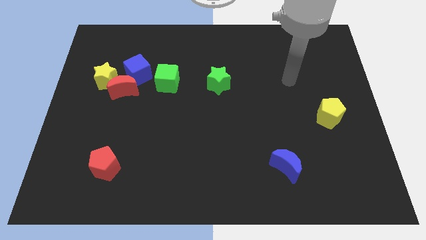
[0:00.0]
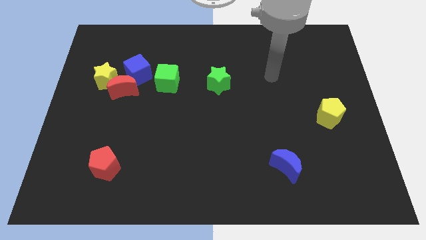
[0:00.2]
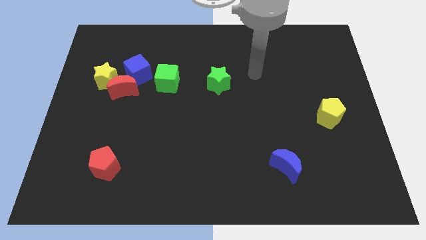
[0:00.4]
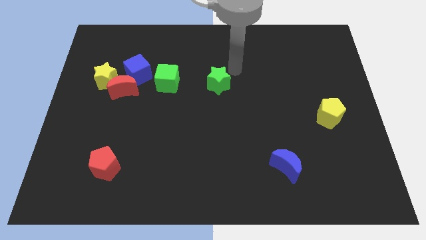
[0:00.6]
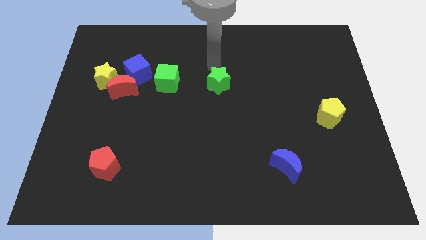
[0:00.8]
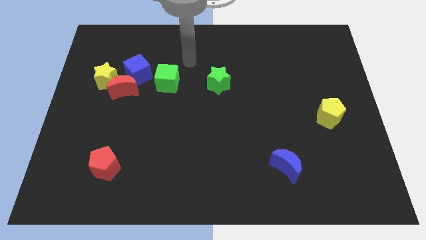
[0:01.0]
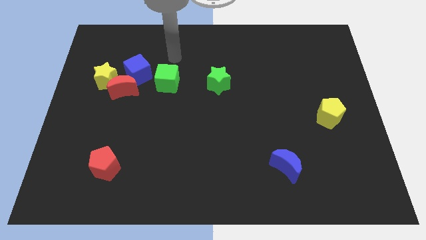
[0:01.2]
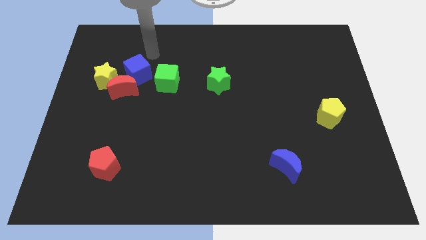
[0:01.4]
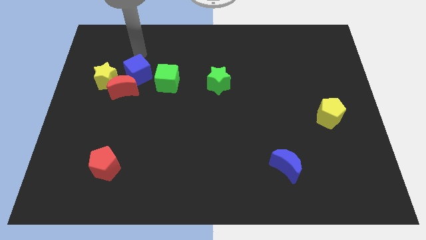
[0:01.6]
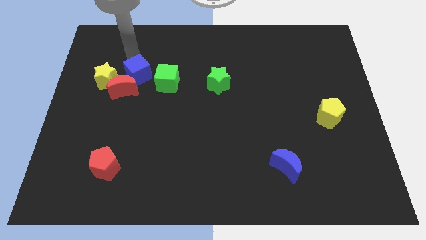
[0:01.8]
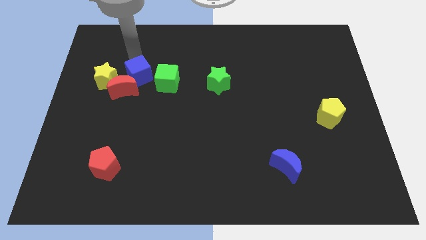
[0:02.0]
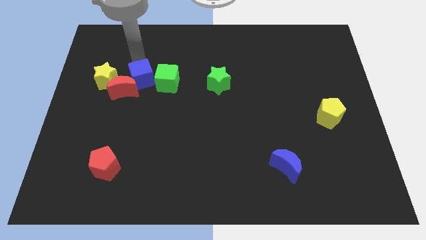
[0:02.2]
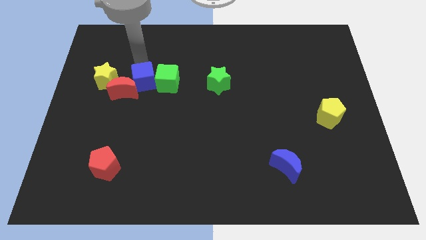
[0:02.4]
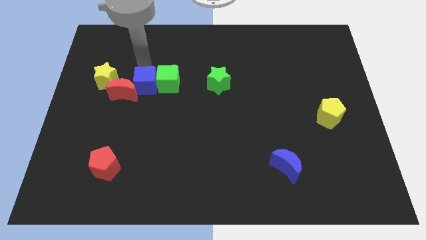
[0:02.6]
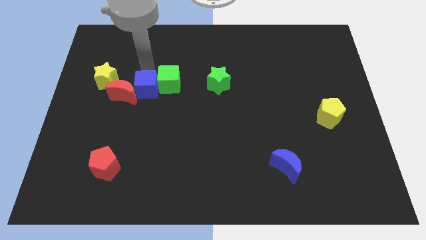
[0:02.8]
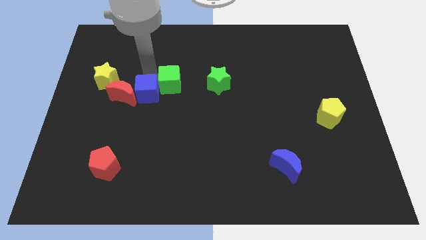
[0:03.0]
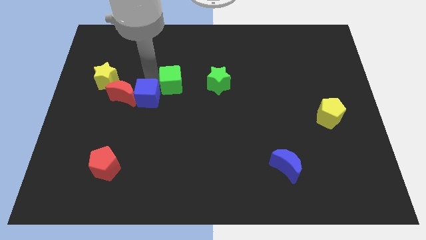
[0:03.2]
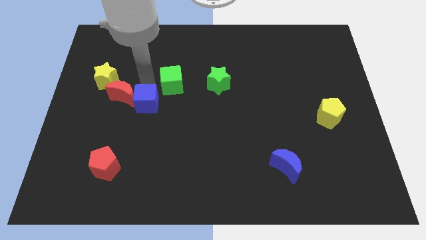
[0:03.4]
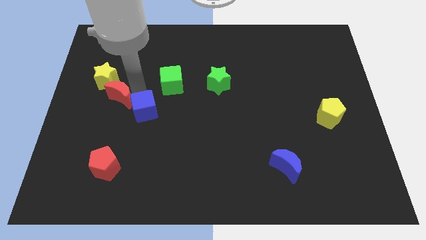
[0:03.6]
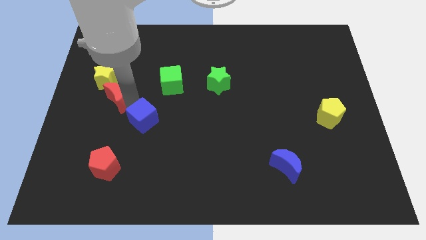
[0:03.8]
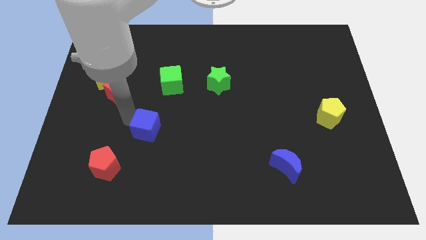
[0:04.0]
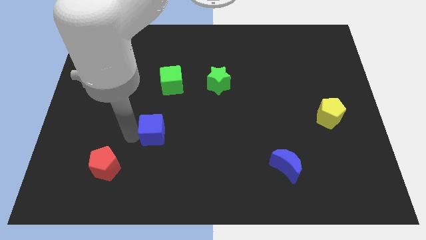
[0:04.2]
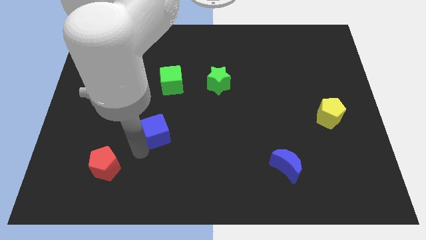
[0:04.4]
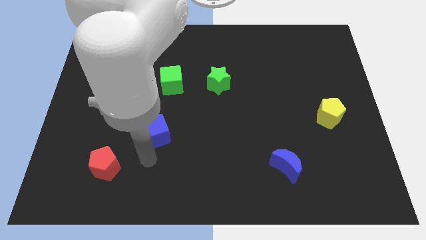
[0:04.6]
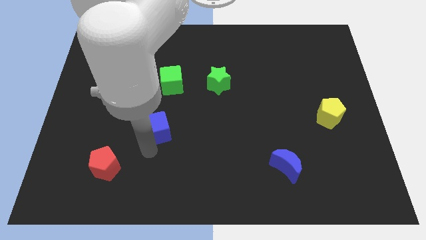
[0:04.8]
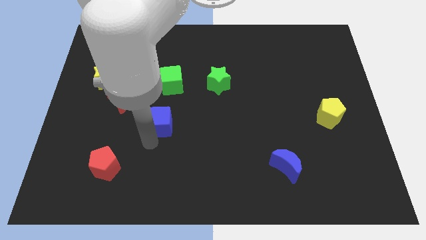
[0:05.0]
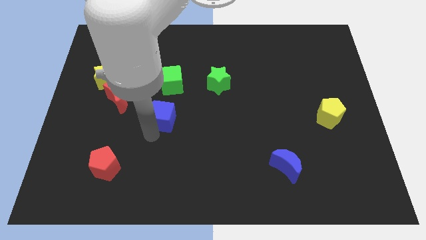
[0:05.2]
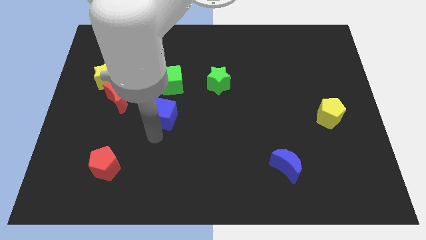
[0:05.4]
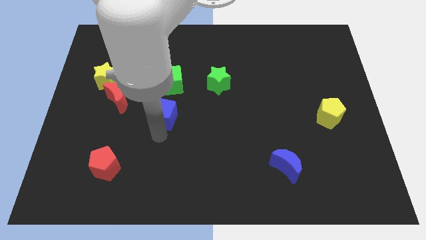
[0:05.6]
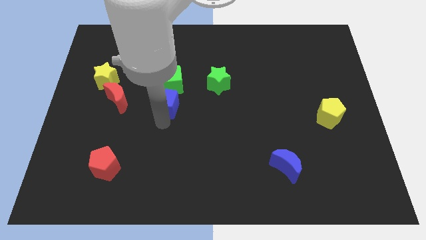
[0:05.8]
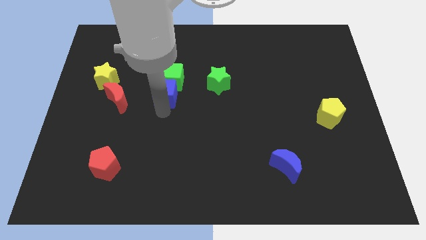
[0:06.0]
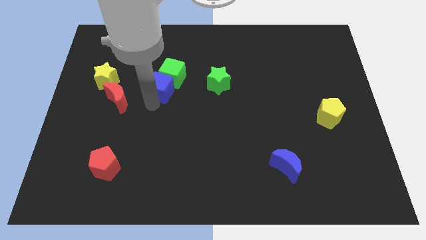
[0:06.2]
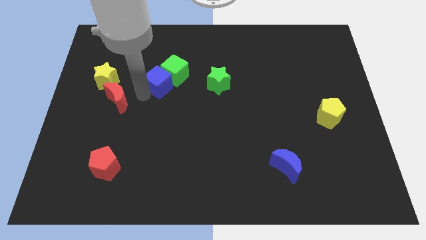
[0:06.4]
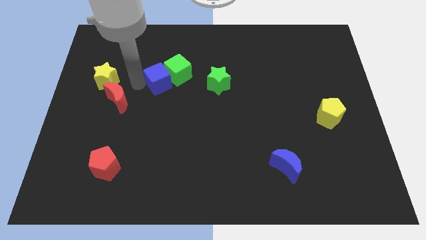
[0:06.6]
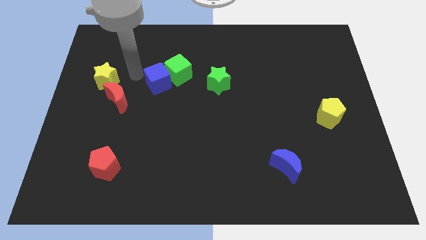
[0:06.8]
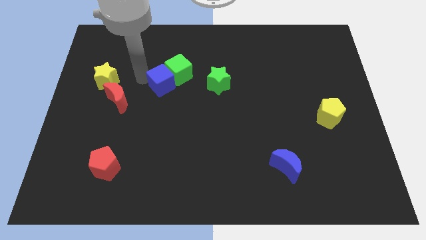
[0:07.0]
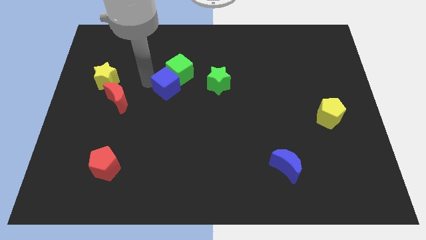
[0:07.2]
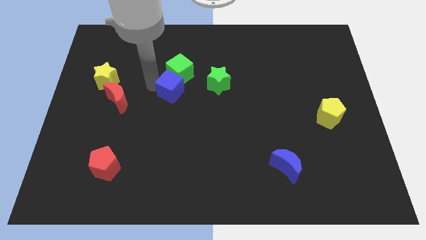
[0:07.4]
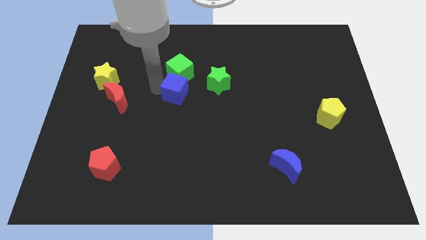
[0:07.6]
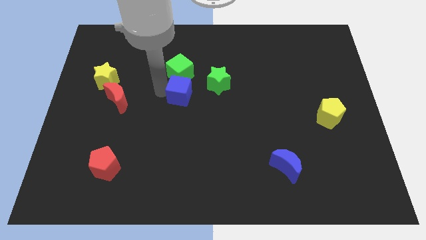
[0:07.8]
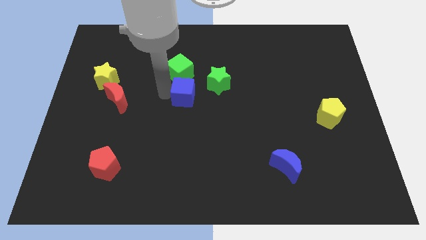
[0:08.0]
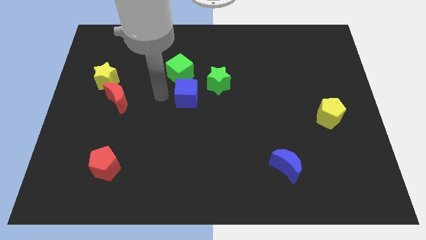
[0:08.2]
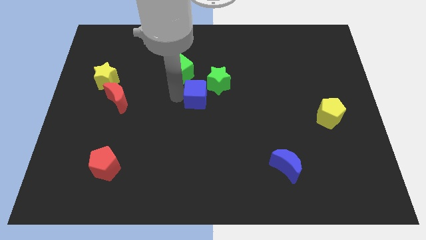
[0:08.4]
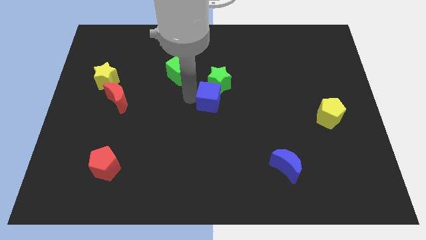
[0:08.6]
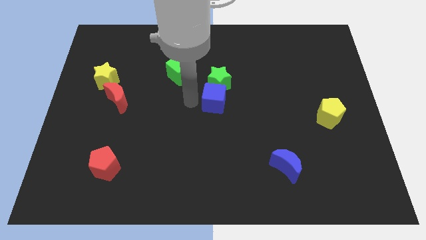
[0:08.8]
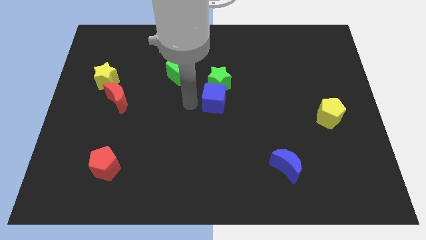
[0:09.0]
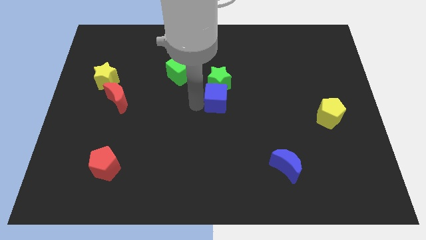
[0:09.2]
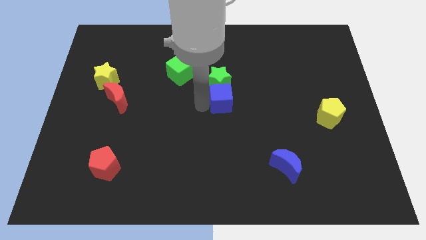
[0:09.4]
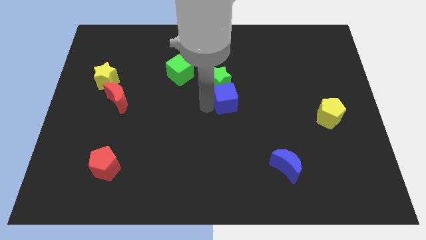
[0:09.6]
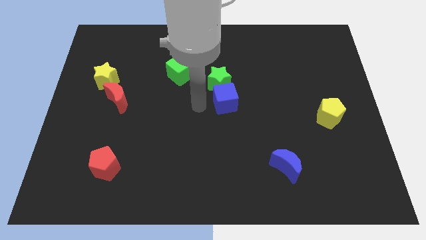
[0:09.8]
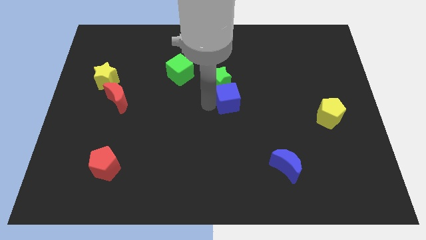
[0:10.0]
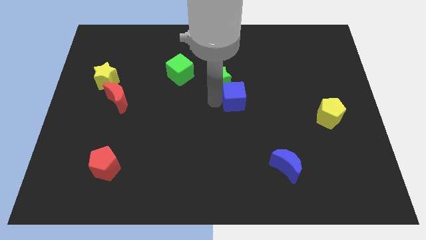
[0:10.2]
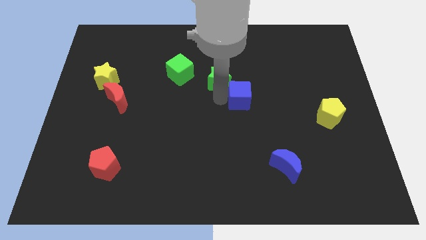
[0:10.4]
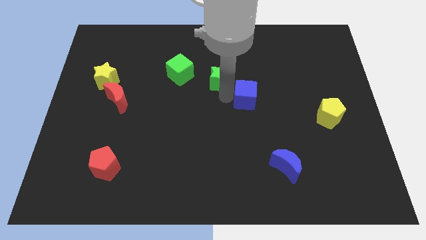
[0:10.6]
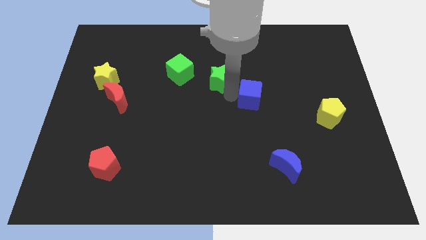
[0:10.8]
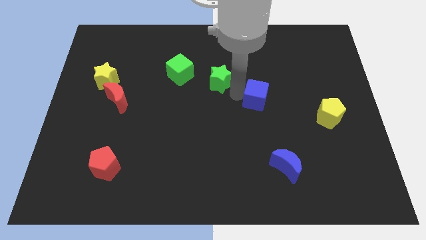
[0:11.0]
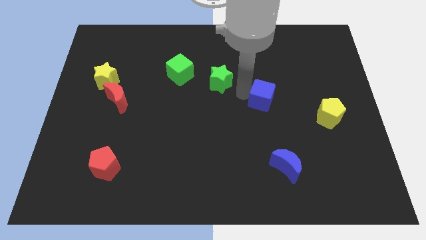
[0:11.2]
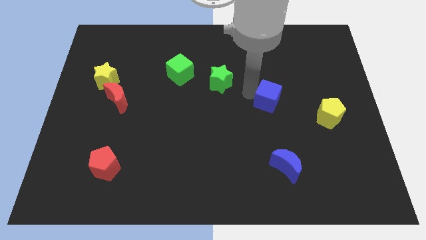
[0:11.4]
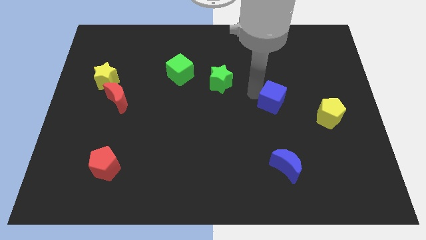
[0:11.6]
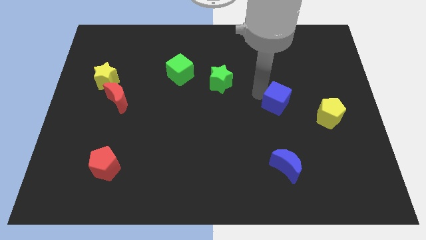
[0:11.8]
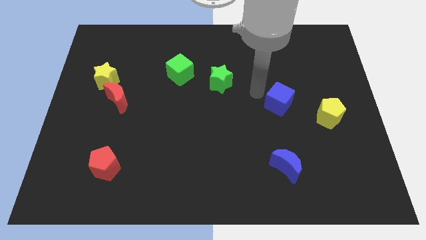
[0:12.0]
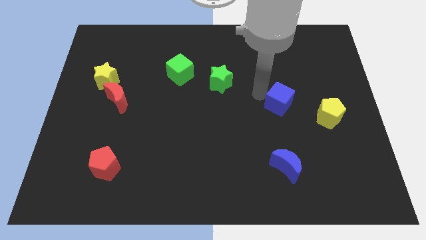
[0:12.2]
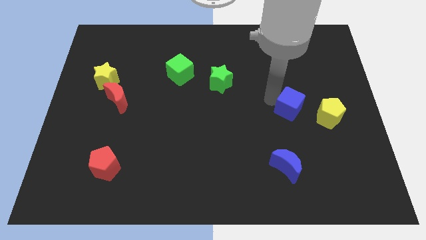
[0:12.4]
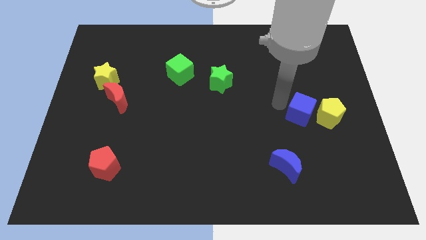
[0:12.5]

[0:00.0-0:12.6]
slide the blue cube close to the yellow pentagon

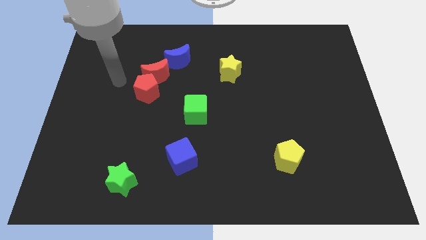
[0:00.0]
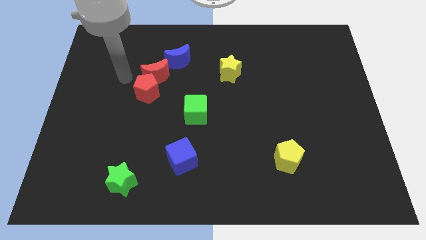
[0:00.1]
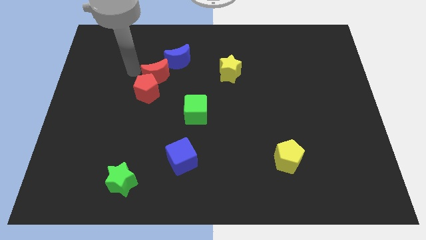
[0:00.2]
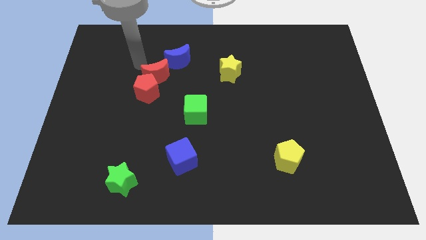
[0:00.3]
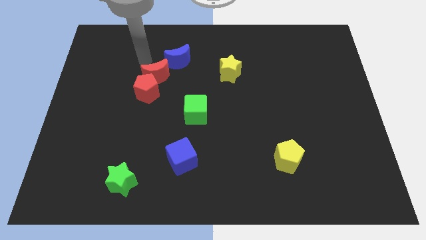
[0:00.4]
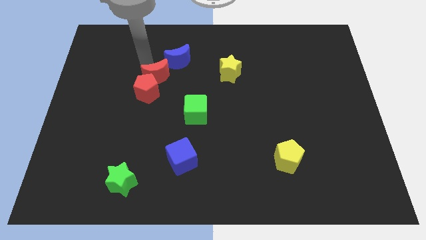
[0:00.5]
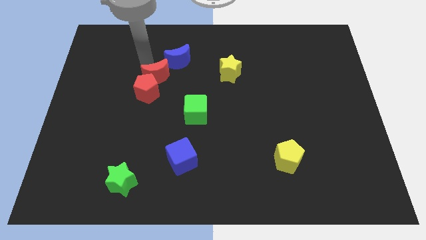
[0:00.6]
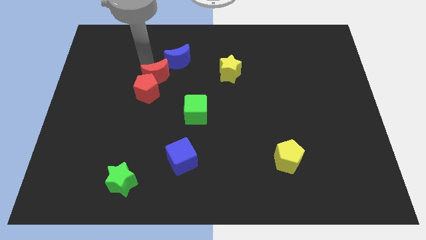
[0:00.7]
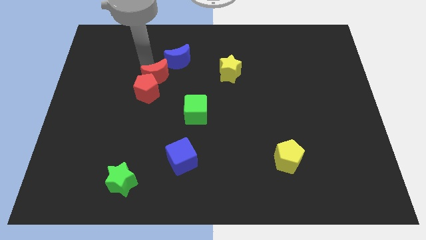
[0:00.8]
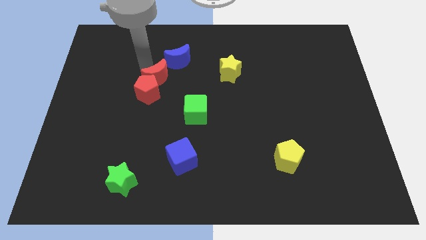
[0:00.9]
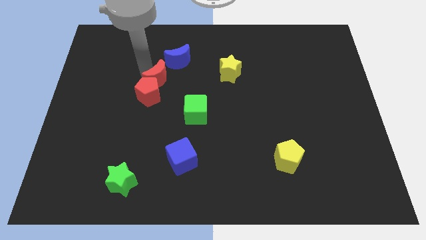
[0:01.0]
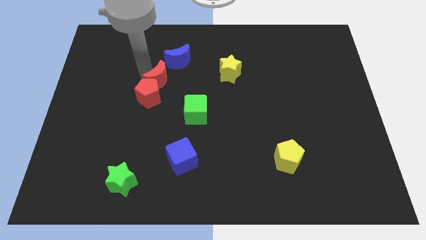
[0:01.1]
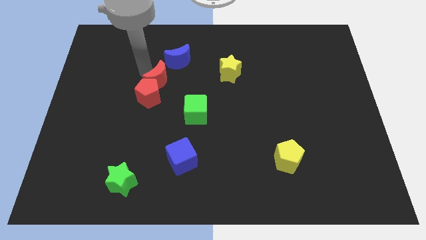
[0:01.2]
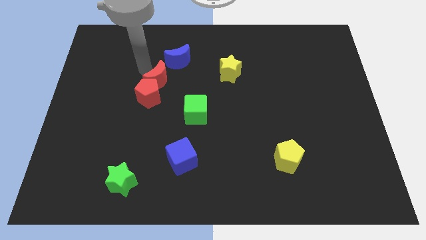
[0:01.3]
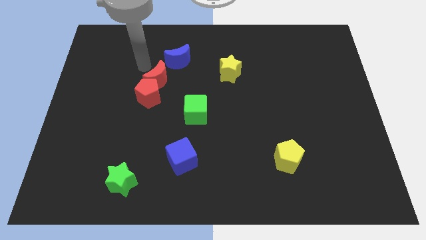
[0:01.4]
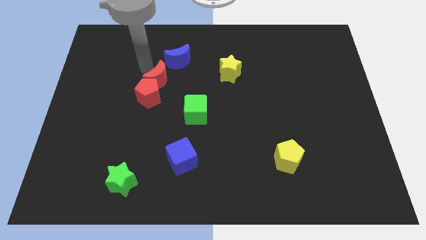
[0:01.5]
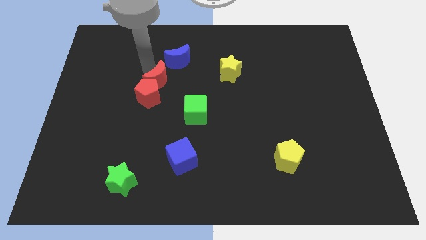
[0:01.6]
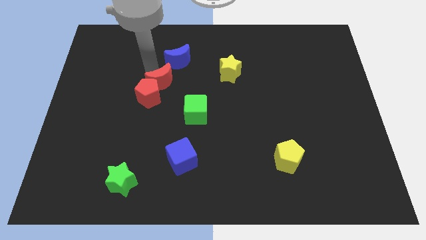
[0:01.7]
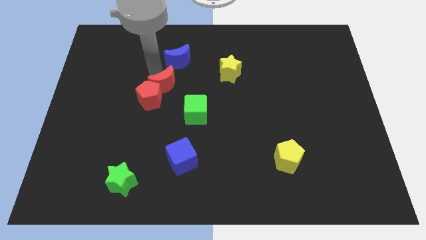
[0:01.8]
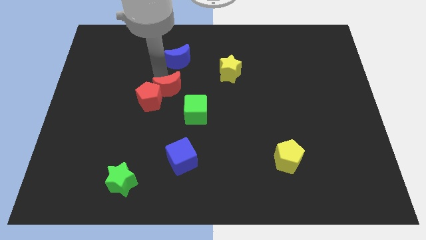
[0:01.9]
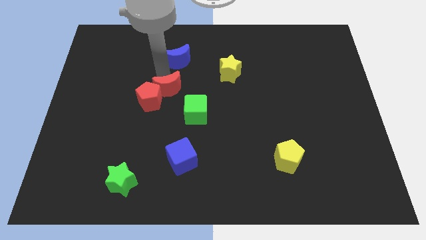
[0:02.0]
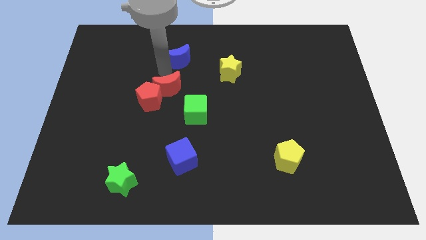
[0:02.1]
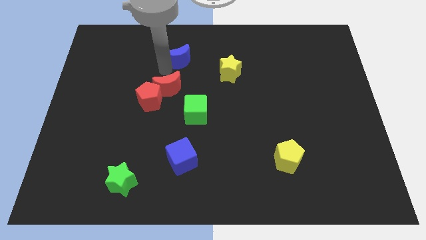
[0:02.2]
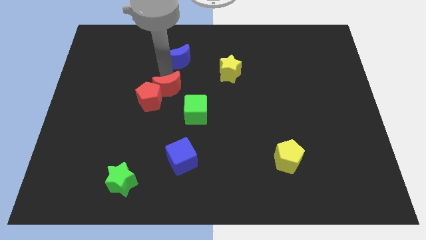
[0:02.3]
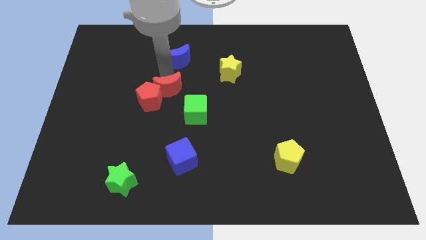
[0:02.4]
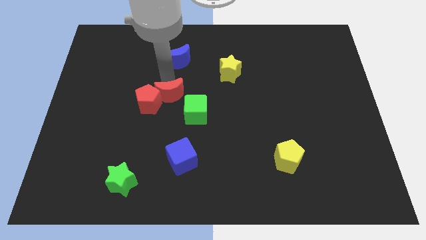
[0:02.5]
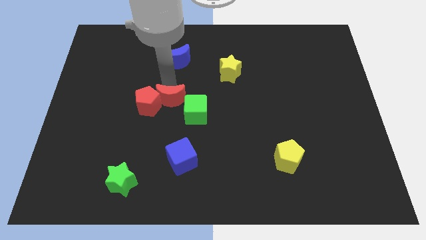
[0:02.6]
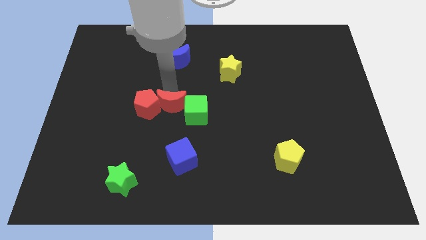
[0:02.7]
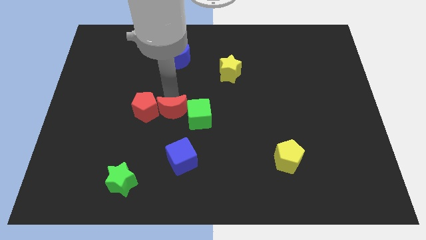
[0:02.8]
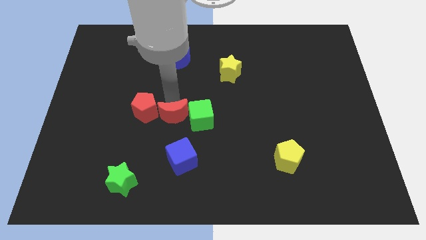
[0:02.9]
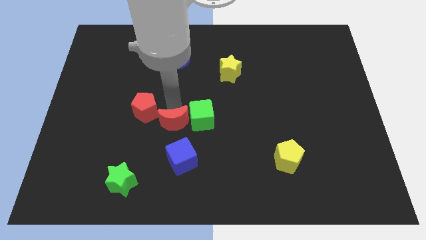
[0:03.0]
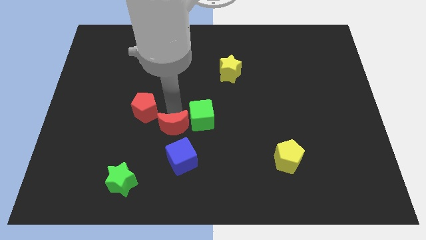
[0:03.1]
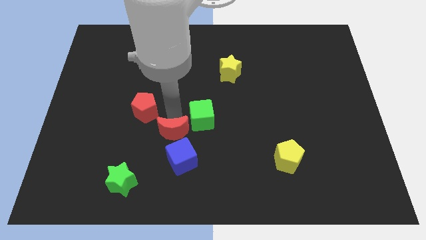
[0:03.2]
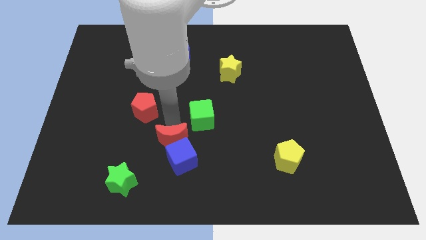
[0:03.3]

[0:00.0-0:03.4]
push the red moon towards the blue cube
